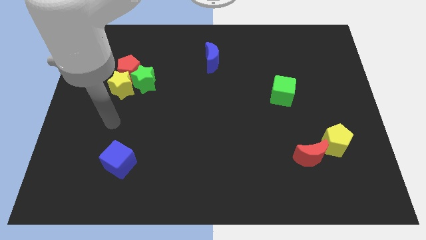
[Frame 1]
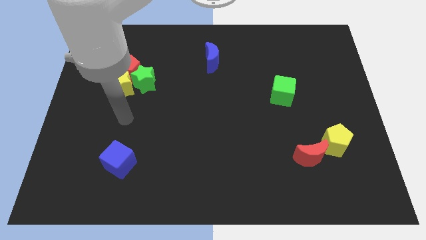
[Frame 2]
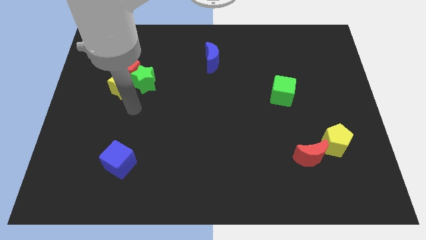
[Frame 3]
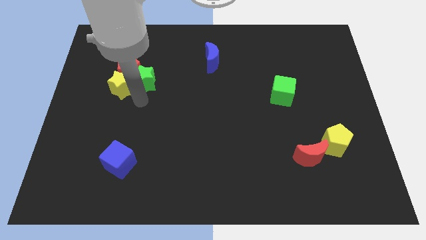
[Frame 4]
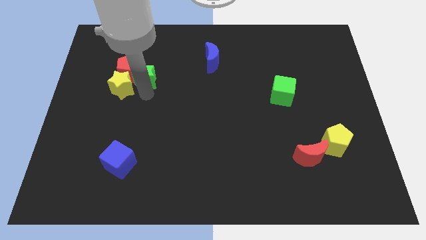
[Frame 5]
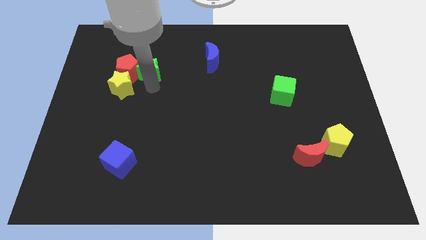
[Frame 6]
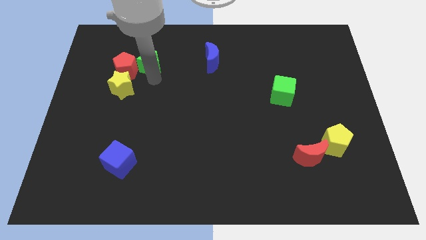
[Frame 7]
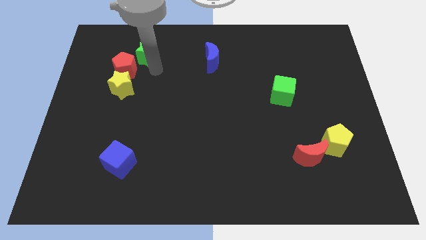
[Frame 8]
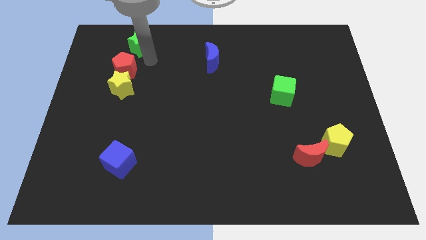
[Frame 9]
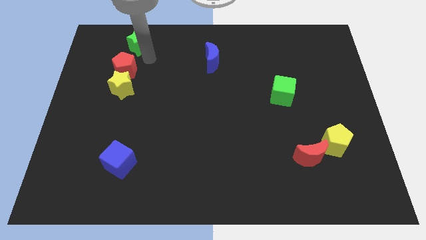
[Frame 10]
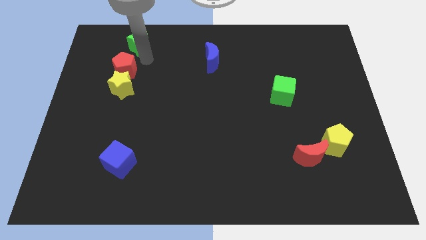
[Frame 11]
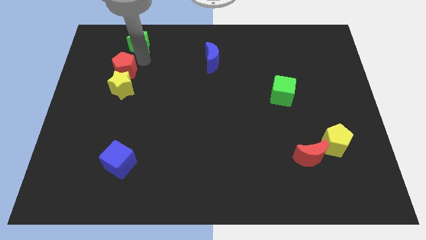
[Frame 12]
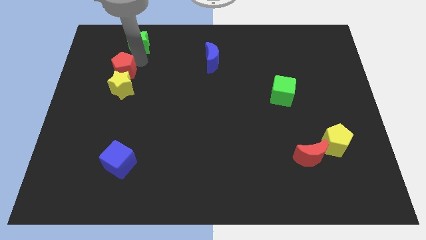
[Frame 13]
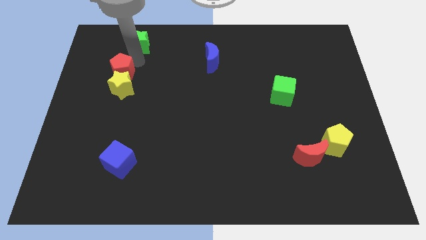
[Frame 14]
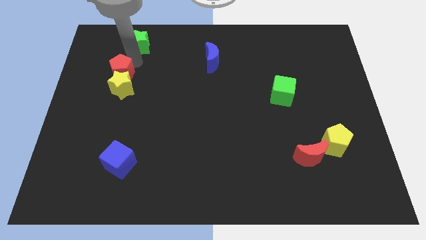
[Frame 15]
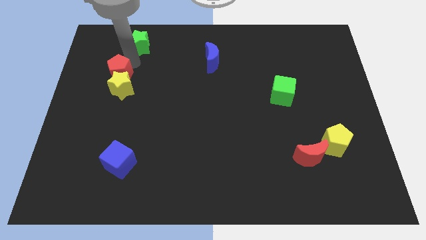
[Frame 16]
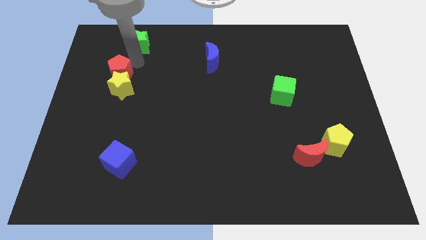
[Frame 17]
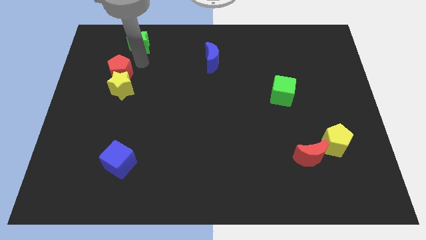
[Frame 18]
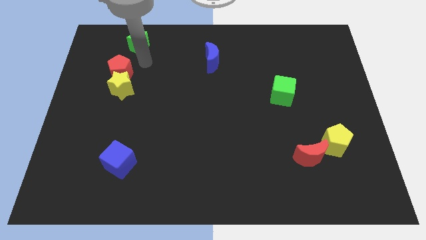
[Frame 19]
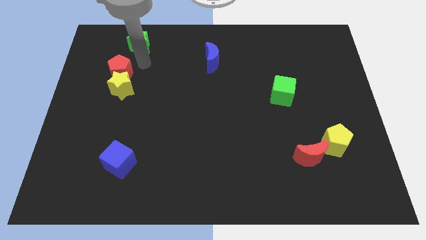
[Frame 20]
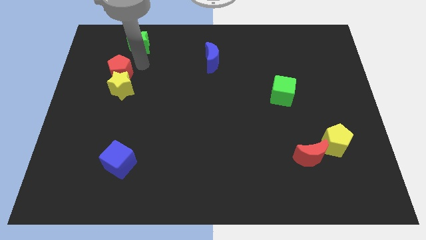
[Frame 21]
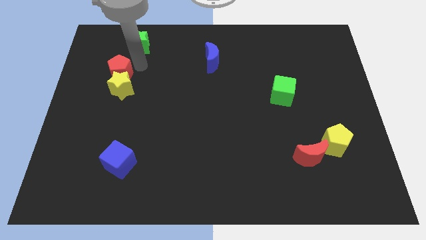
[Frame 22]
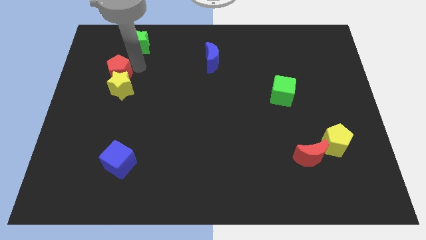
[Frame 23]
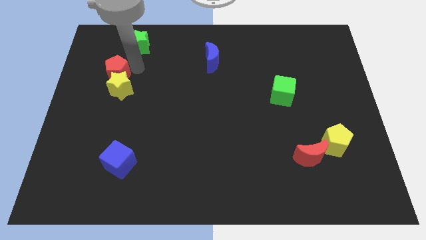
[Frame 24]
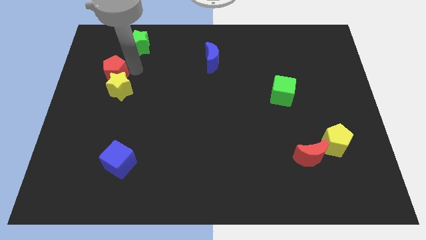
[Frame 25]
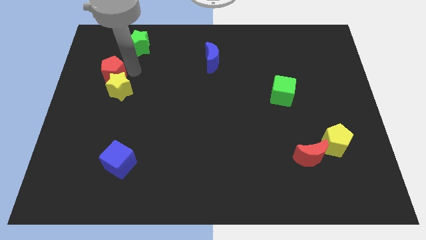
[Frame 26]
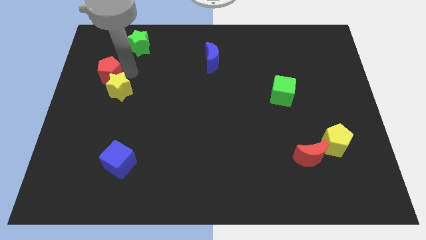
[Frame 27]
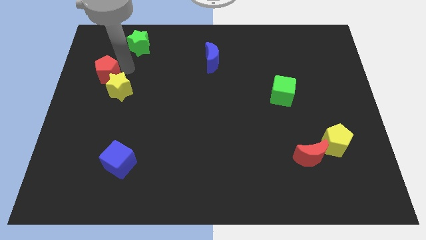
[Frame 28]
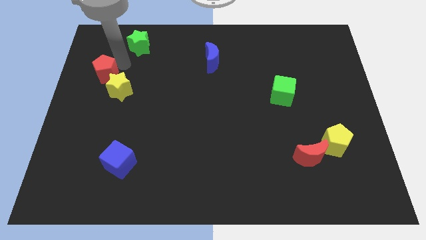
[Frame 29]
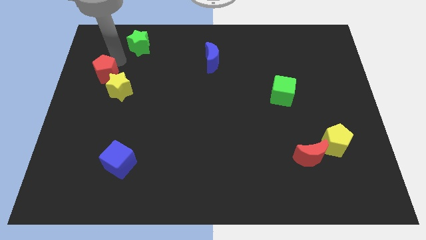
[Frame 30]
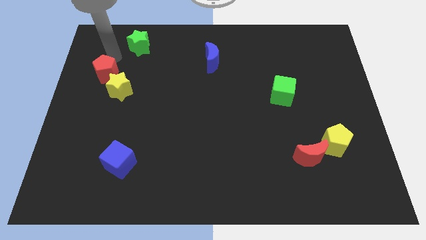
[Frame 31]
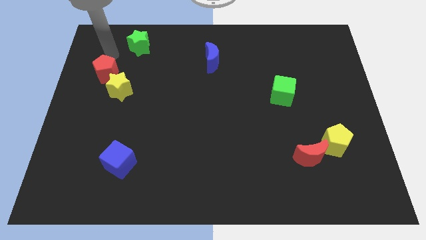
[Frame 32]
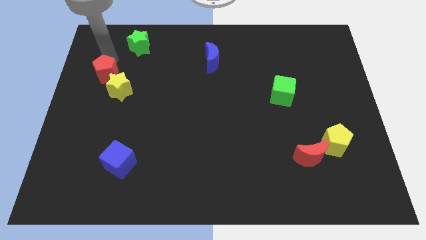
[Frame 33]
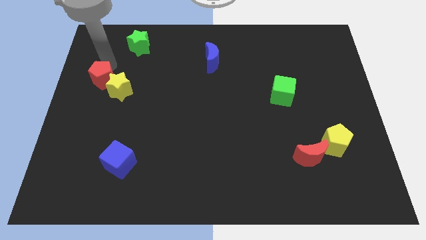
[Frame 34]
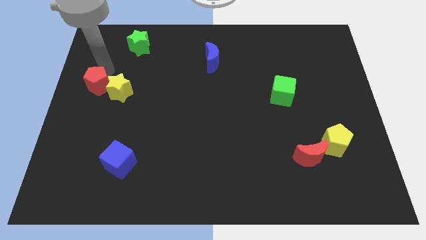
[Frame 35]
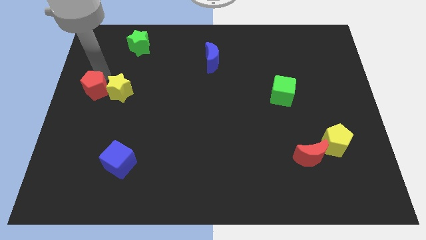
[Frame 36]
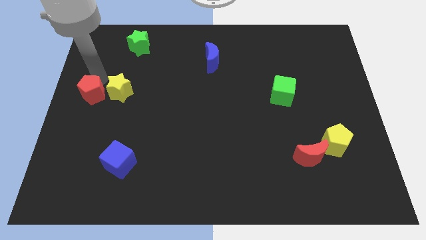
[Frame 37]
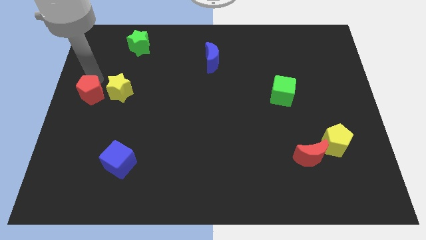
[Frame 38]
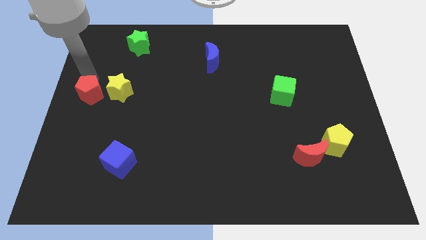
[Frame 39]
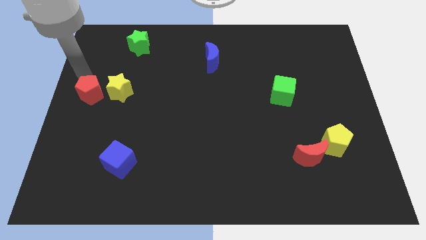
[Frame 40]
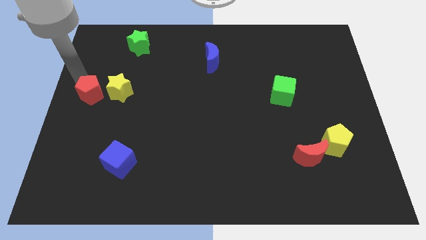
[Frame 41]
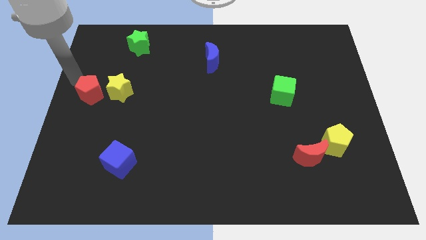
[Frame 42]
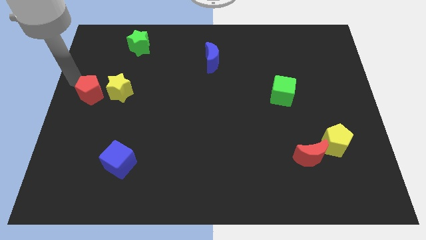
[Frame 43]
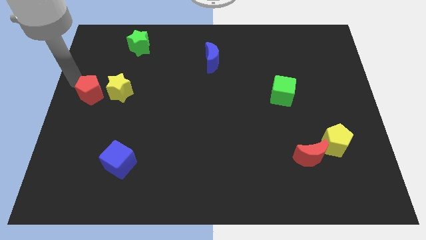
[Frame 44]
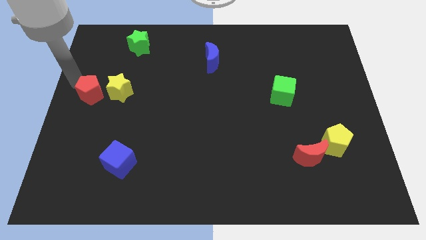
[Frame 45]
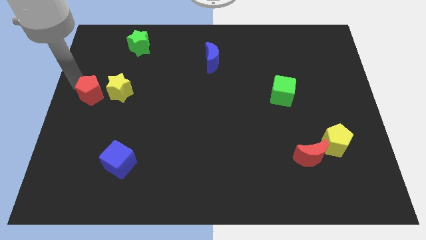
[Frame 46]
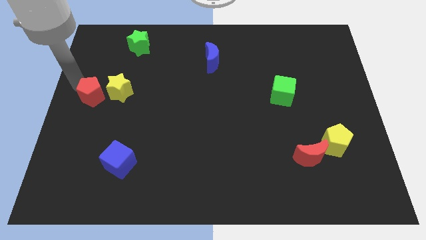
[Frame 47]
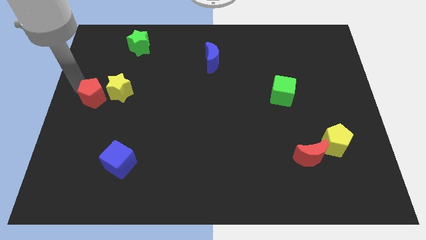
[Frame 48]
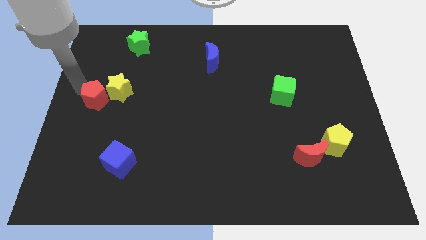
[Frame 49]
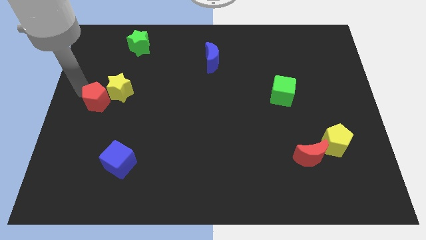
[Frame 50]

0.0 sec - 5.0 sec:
slide the red pentagon somewhat down

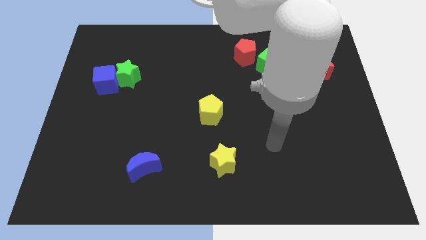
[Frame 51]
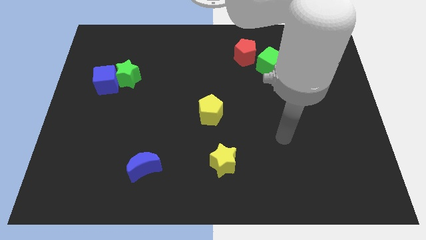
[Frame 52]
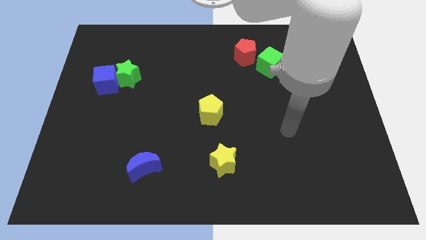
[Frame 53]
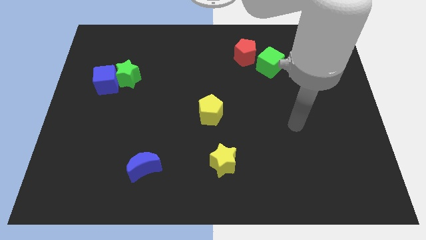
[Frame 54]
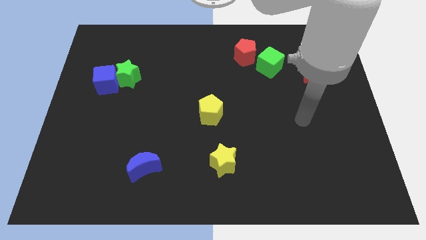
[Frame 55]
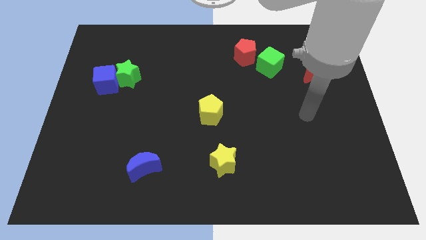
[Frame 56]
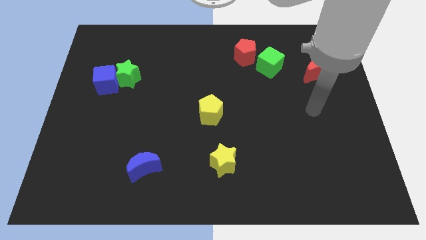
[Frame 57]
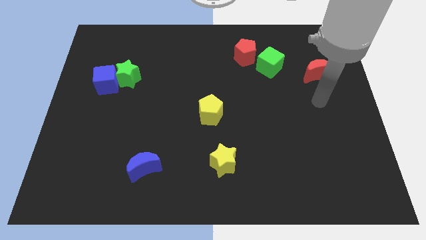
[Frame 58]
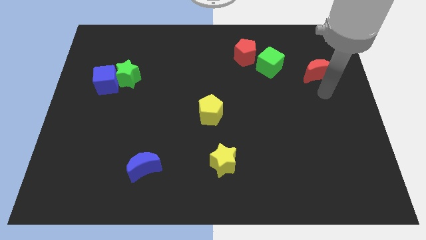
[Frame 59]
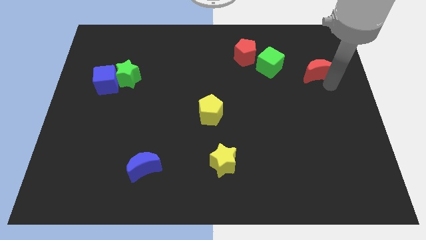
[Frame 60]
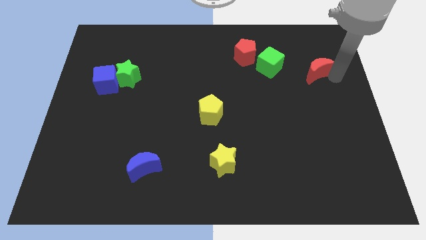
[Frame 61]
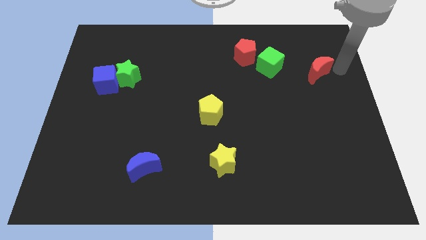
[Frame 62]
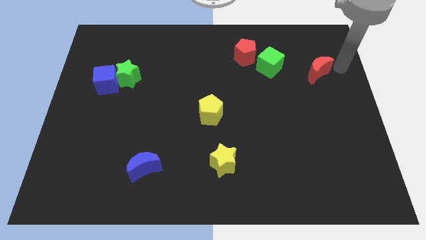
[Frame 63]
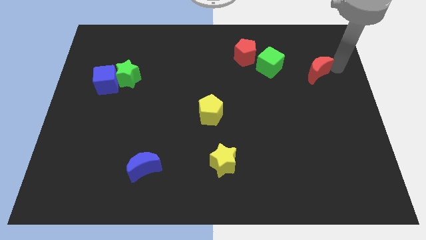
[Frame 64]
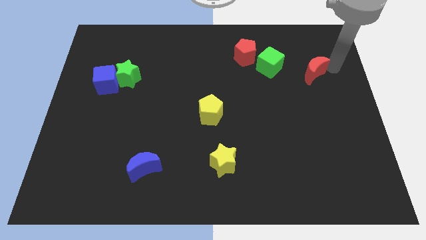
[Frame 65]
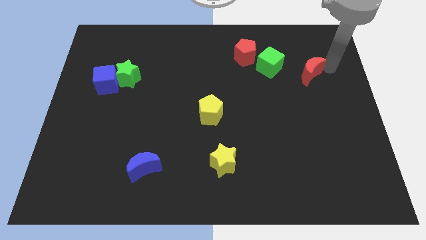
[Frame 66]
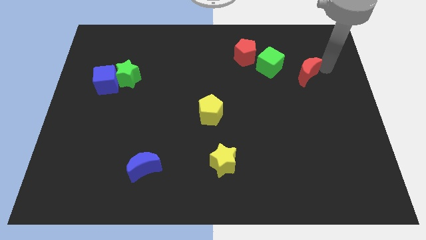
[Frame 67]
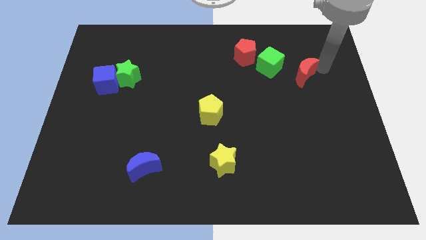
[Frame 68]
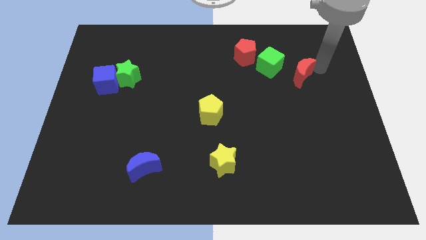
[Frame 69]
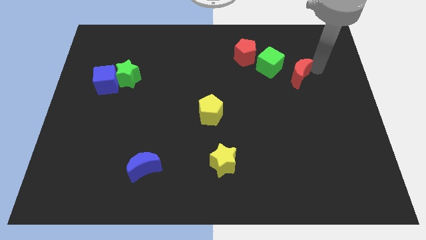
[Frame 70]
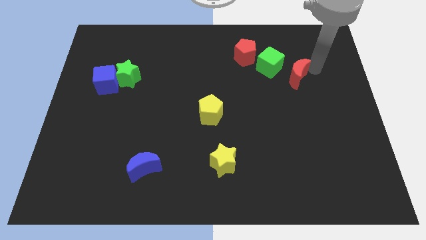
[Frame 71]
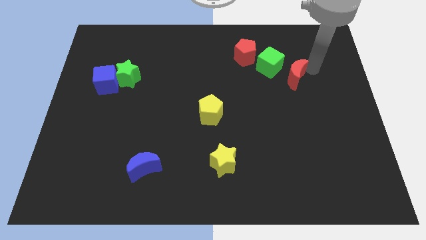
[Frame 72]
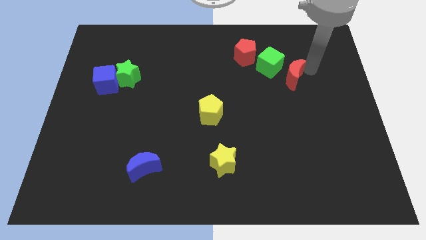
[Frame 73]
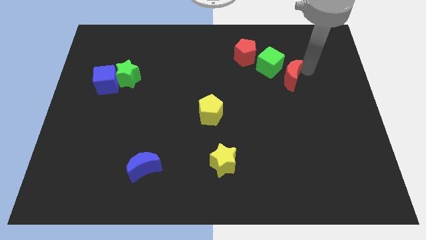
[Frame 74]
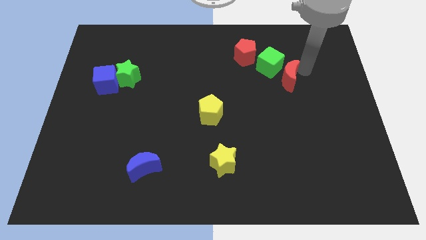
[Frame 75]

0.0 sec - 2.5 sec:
slide the red moon a little bit to the left

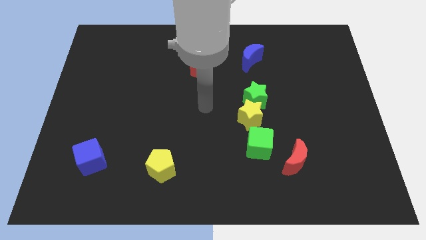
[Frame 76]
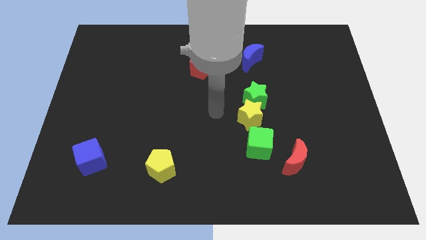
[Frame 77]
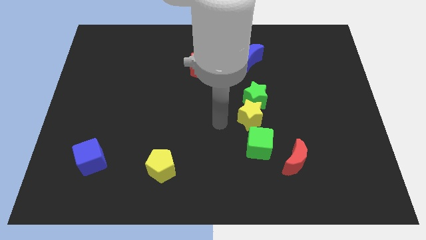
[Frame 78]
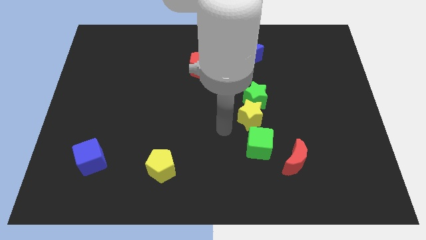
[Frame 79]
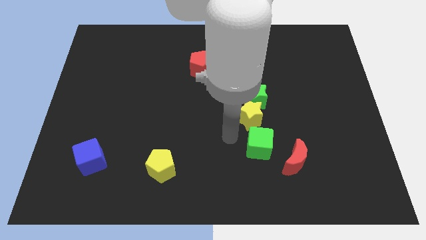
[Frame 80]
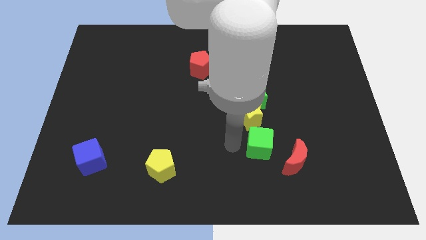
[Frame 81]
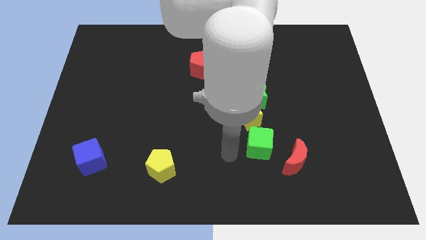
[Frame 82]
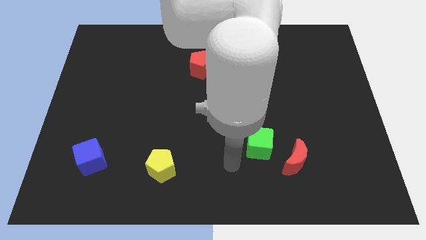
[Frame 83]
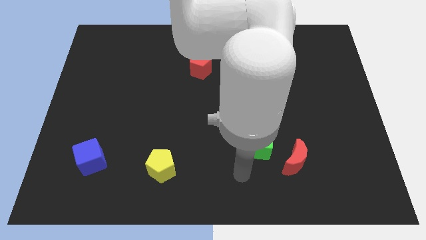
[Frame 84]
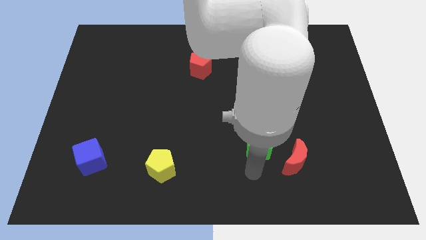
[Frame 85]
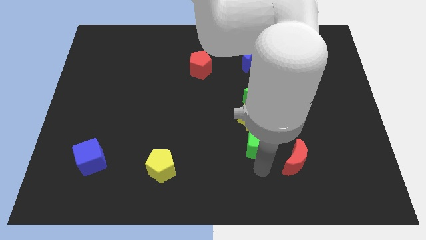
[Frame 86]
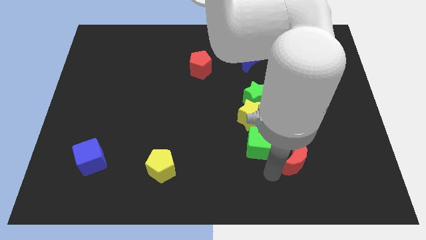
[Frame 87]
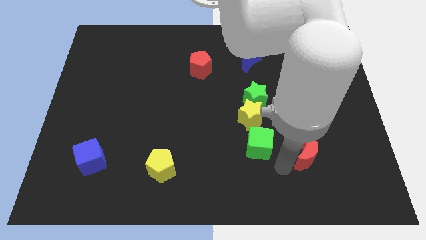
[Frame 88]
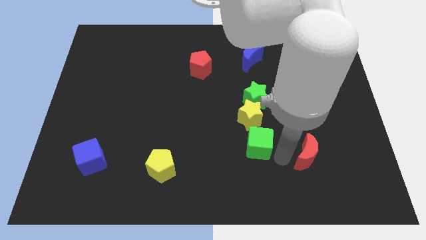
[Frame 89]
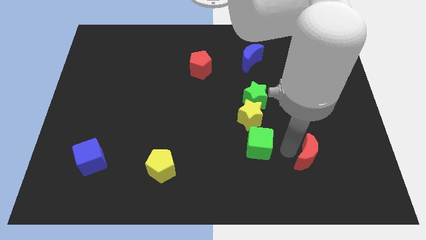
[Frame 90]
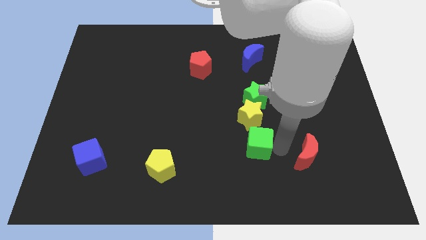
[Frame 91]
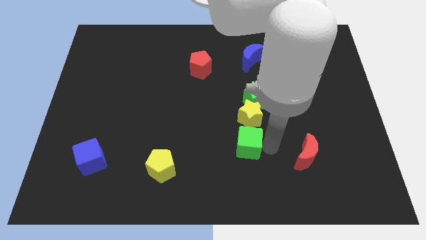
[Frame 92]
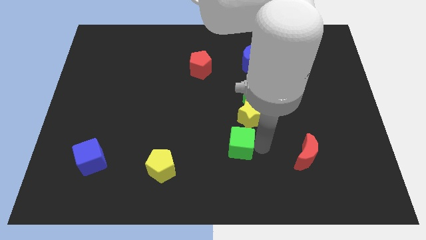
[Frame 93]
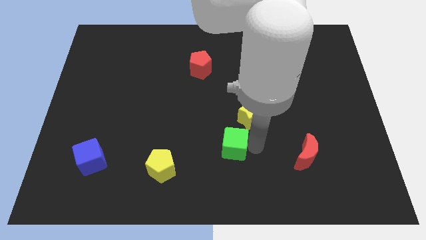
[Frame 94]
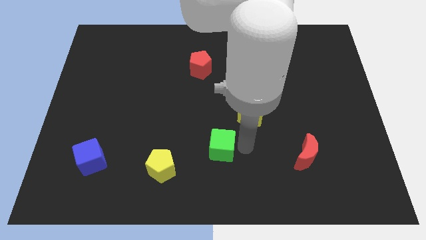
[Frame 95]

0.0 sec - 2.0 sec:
push the green cube left slightly
